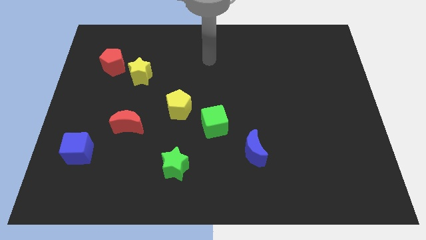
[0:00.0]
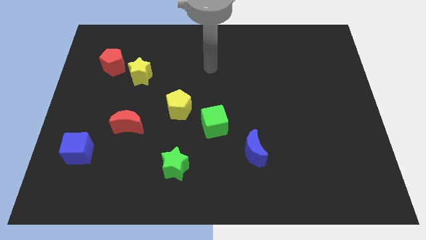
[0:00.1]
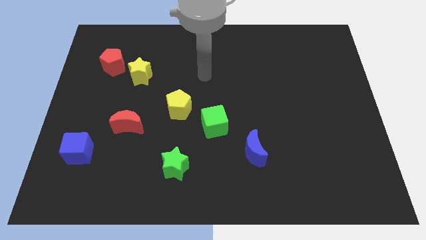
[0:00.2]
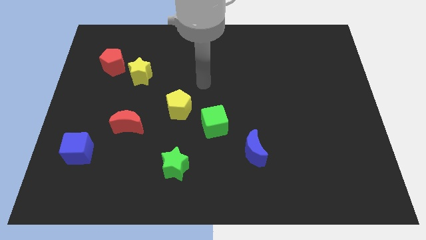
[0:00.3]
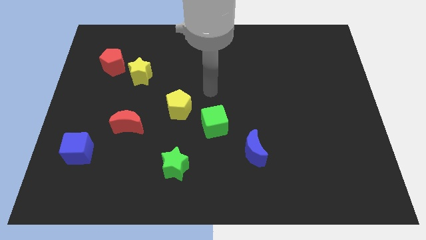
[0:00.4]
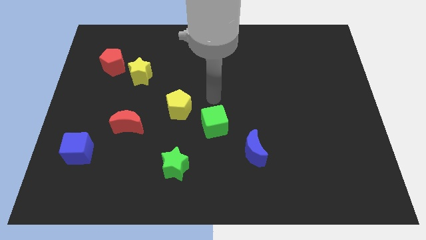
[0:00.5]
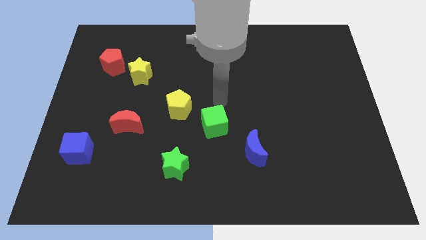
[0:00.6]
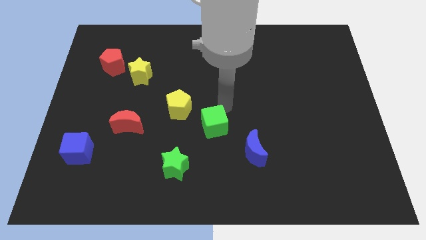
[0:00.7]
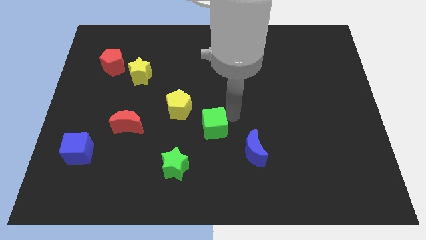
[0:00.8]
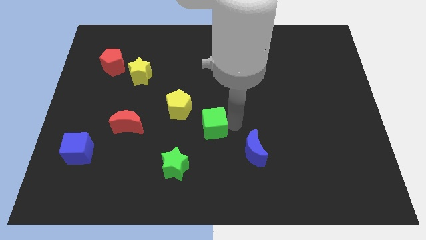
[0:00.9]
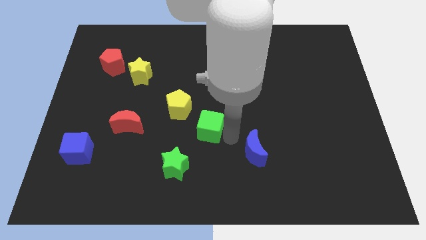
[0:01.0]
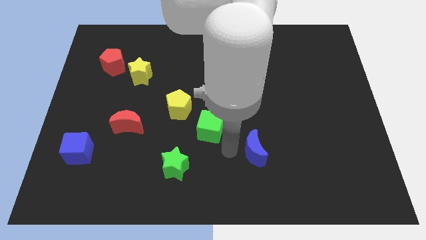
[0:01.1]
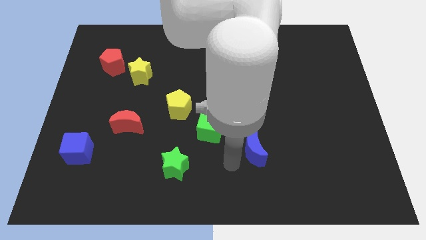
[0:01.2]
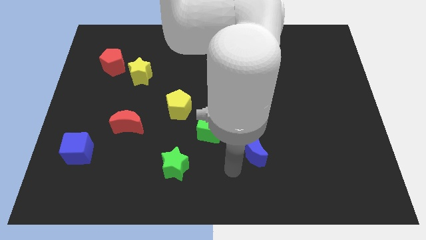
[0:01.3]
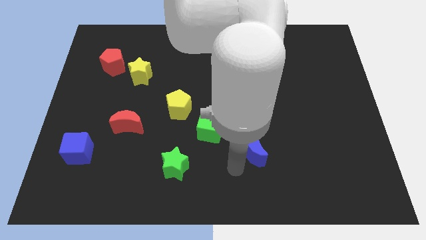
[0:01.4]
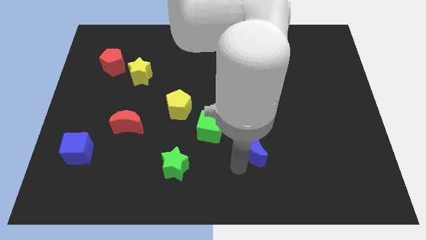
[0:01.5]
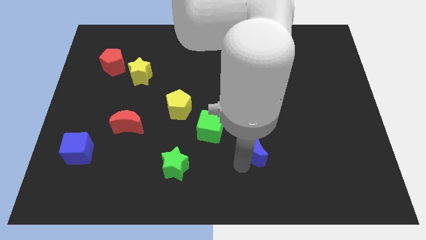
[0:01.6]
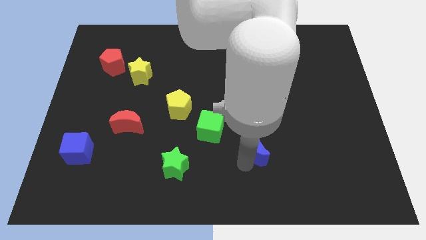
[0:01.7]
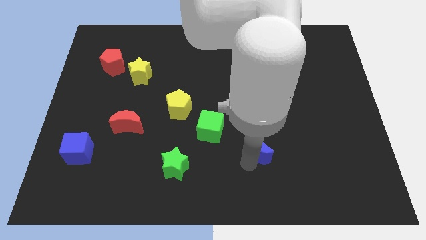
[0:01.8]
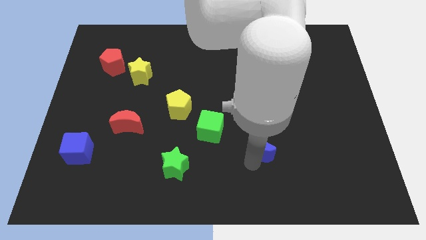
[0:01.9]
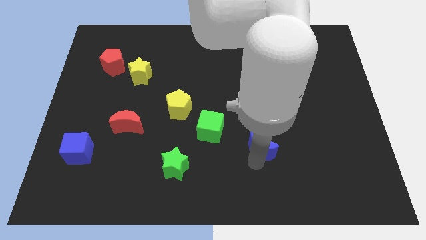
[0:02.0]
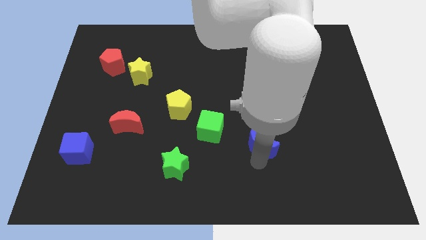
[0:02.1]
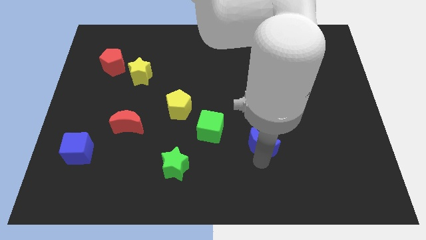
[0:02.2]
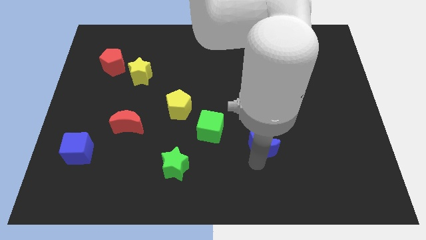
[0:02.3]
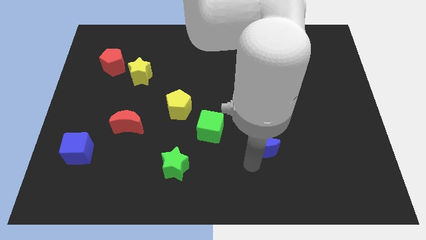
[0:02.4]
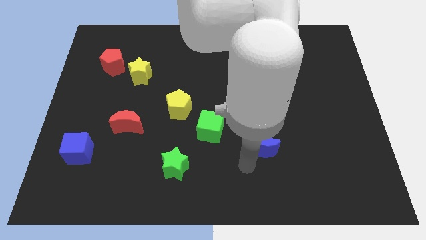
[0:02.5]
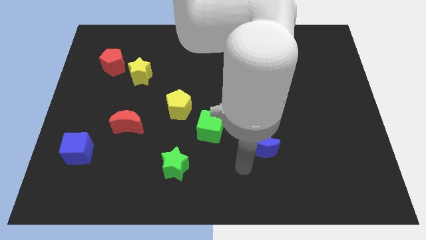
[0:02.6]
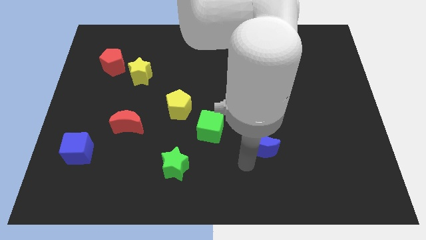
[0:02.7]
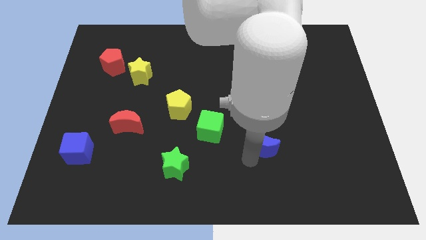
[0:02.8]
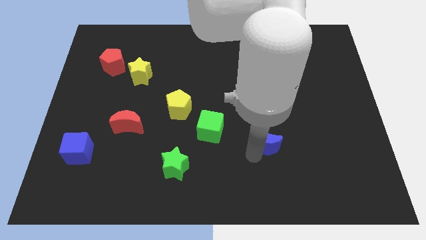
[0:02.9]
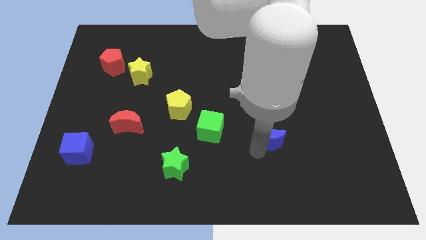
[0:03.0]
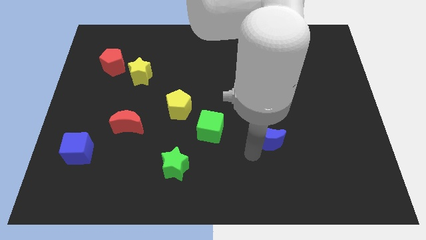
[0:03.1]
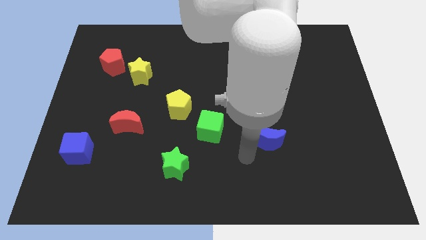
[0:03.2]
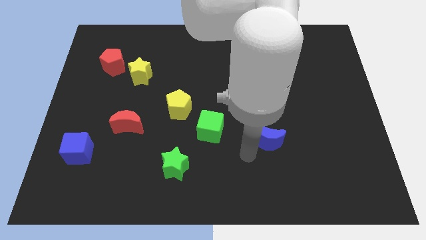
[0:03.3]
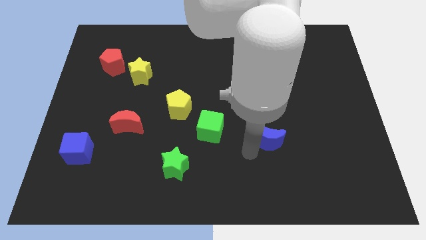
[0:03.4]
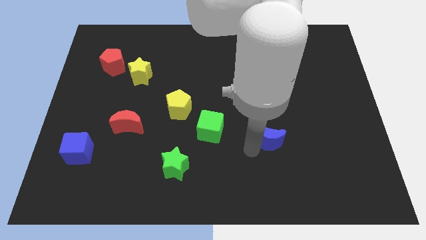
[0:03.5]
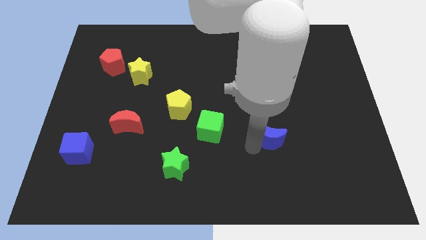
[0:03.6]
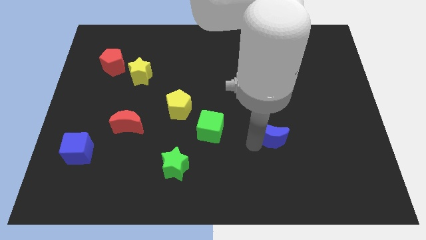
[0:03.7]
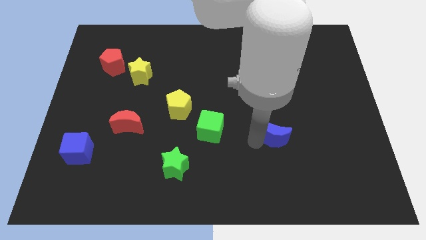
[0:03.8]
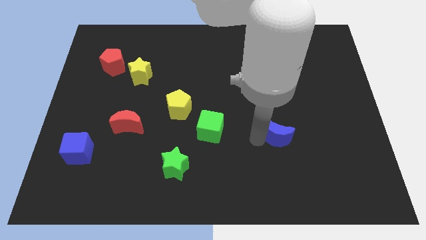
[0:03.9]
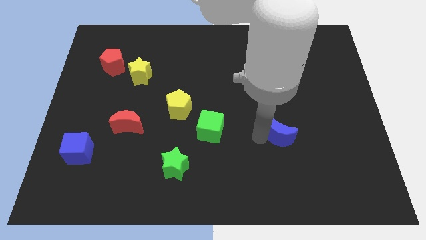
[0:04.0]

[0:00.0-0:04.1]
move the blue moon up and to the right diagonally a little bit

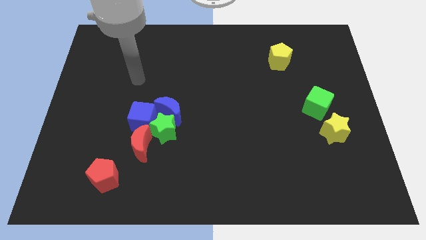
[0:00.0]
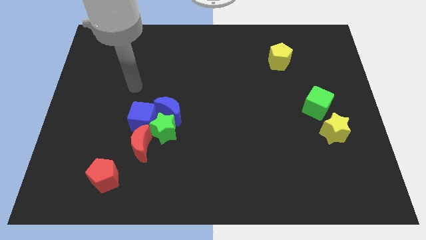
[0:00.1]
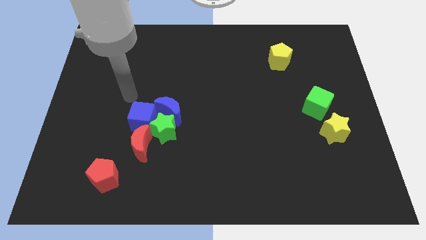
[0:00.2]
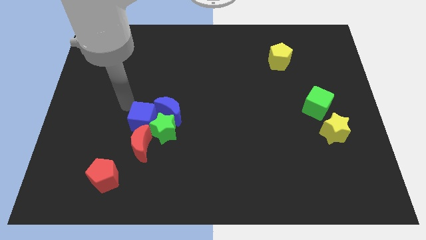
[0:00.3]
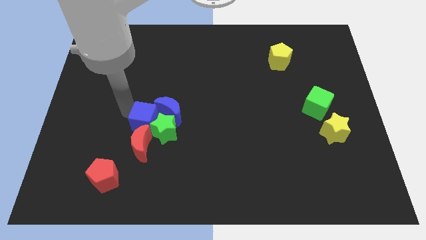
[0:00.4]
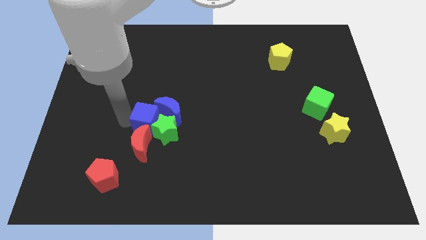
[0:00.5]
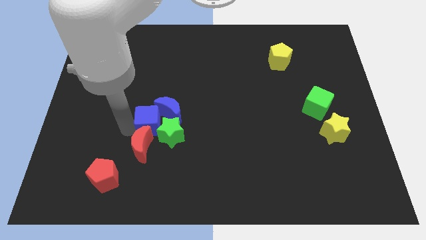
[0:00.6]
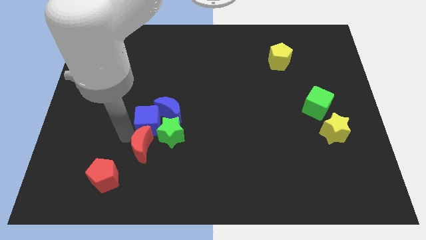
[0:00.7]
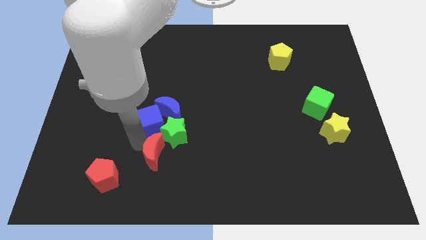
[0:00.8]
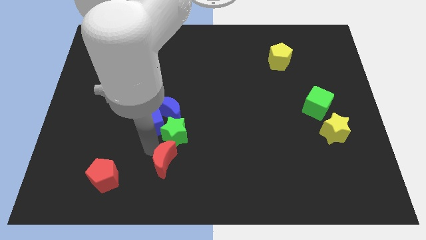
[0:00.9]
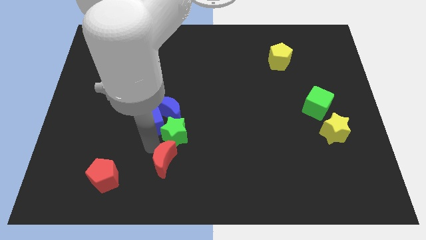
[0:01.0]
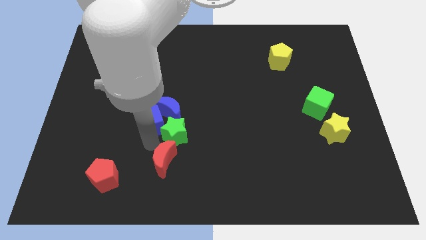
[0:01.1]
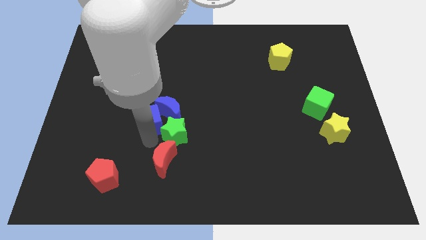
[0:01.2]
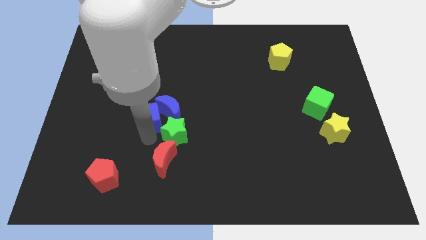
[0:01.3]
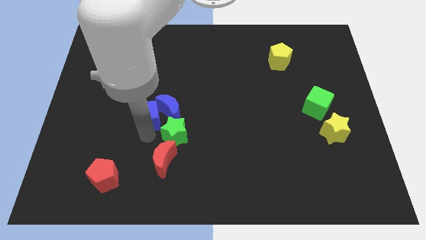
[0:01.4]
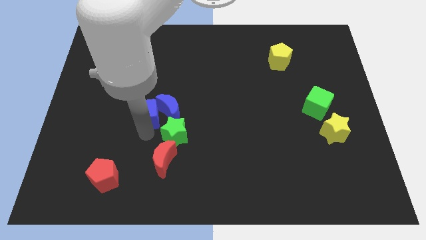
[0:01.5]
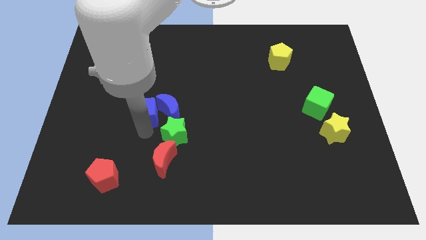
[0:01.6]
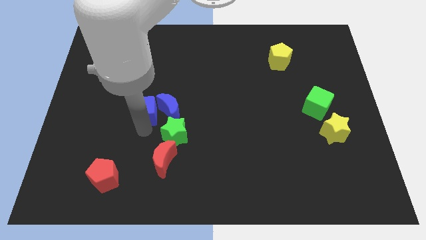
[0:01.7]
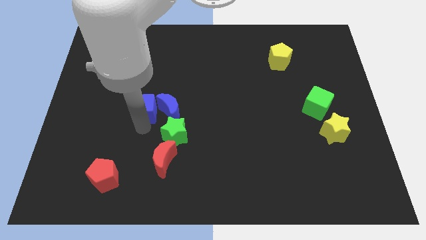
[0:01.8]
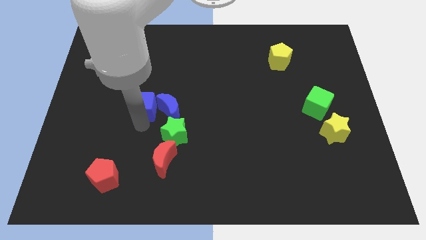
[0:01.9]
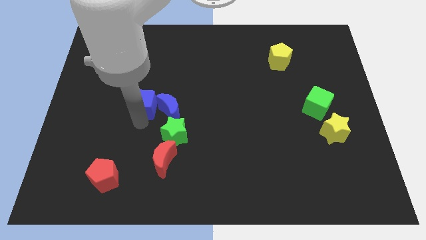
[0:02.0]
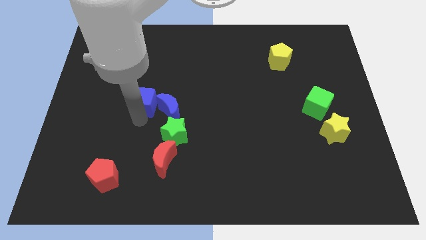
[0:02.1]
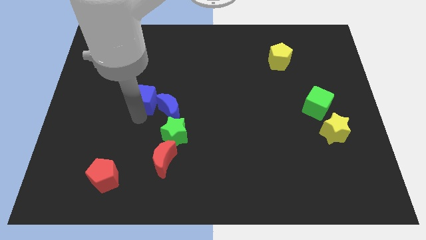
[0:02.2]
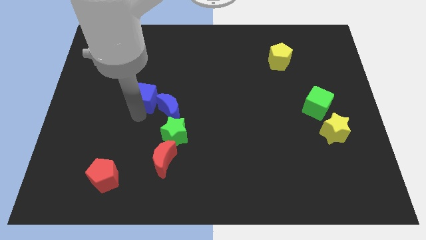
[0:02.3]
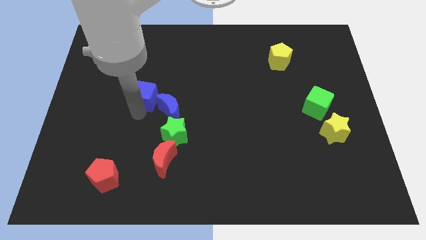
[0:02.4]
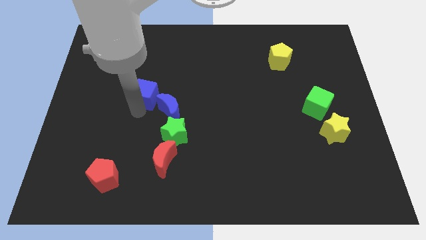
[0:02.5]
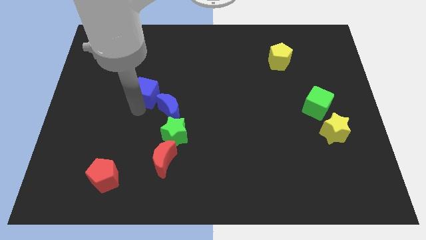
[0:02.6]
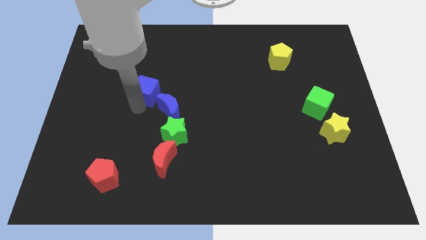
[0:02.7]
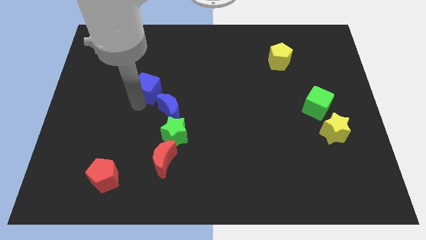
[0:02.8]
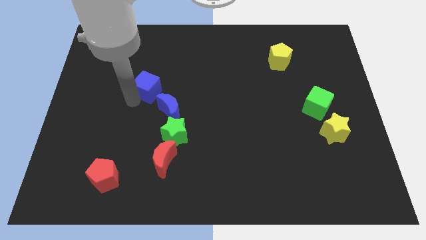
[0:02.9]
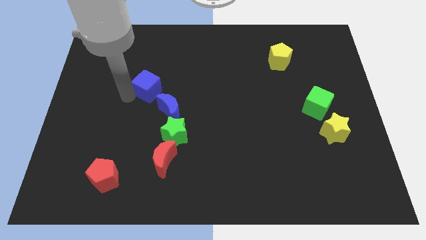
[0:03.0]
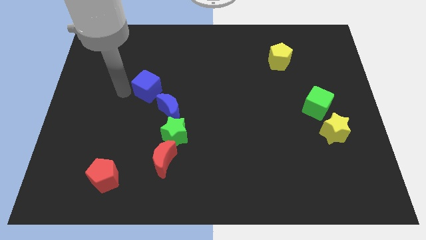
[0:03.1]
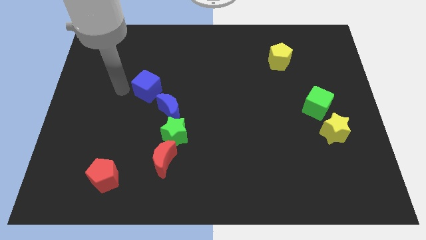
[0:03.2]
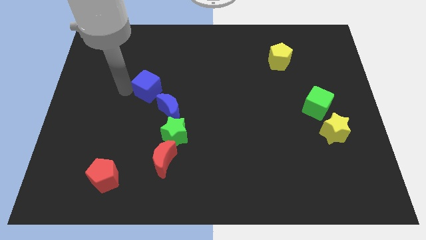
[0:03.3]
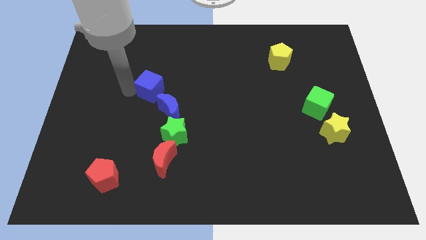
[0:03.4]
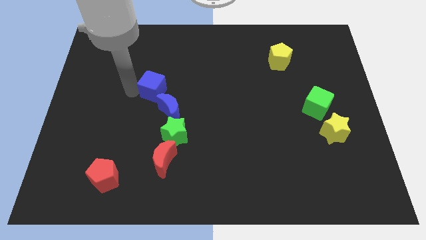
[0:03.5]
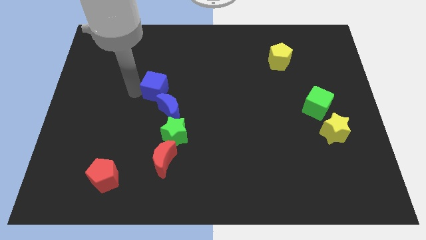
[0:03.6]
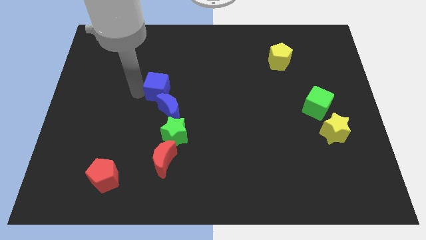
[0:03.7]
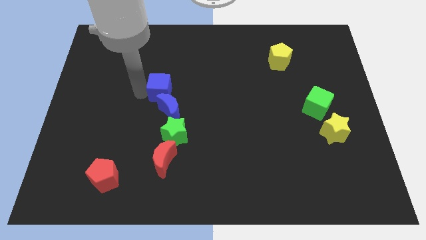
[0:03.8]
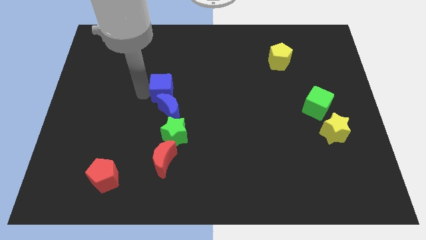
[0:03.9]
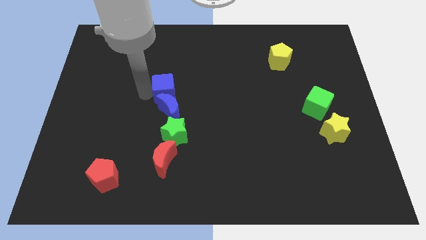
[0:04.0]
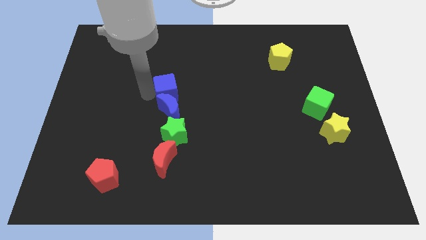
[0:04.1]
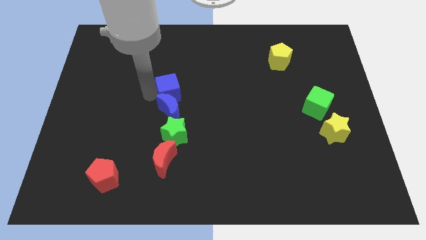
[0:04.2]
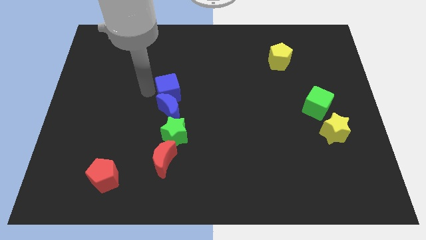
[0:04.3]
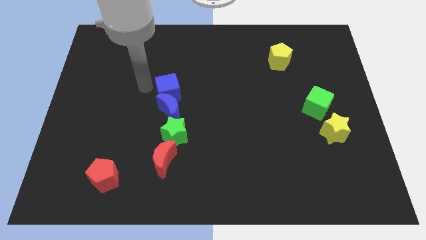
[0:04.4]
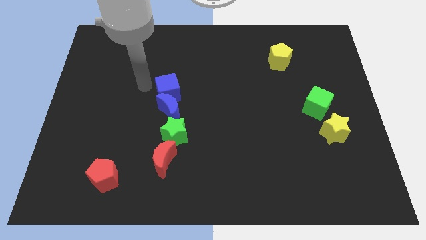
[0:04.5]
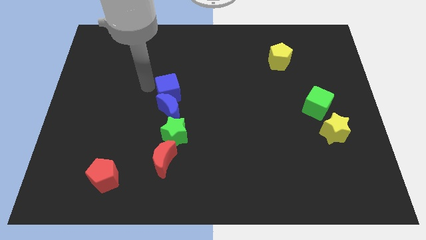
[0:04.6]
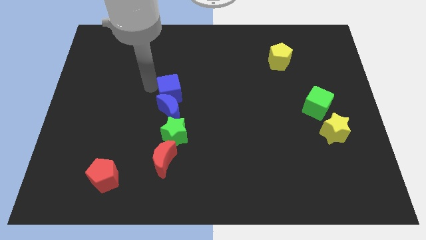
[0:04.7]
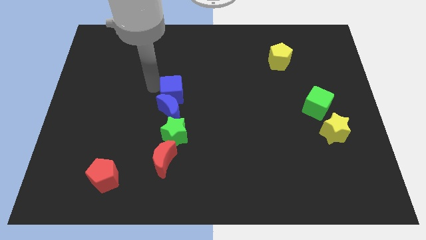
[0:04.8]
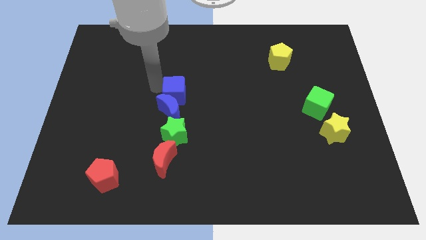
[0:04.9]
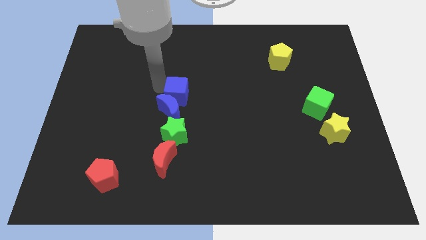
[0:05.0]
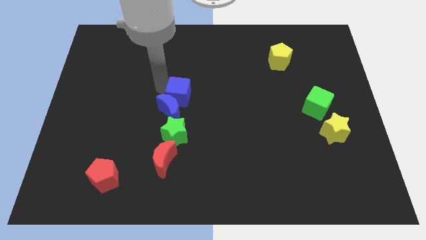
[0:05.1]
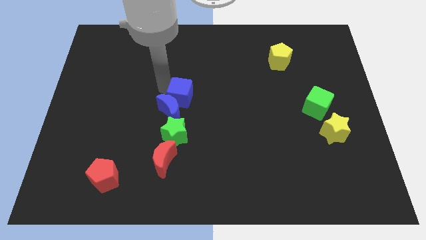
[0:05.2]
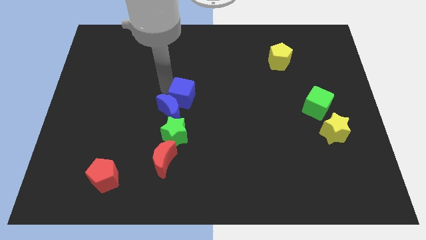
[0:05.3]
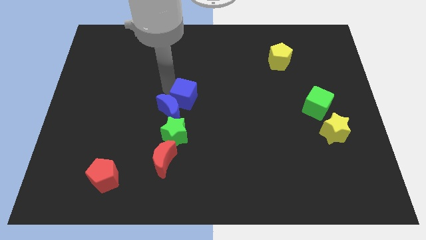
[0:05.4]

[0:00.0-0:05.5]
move the blue cube to the right a little bit
